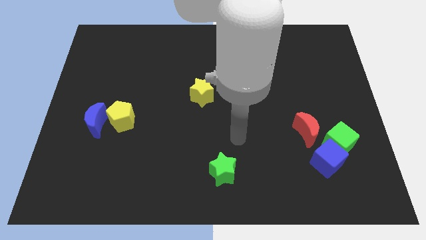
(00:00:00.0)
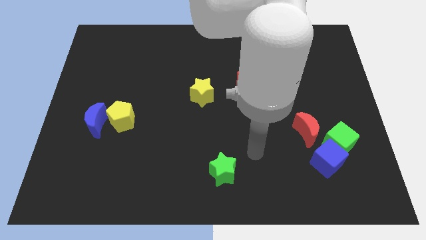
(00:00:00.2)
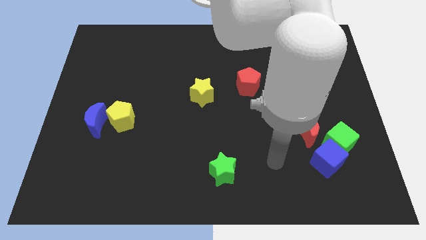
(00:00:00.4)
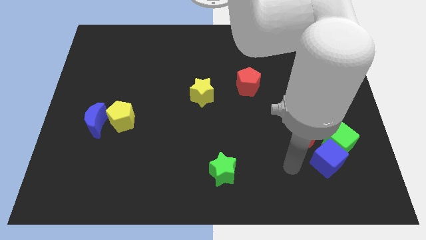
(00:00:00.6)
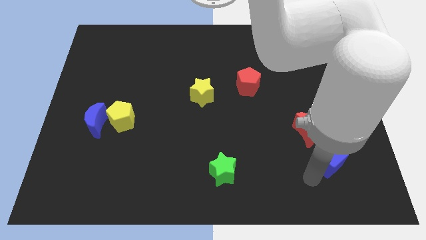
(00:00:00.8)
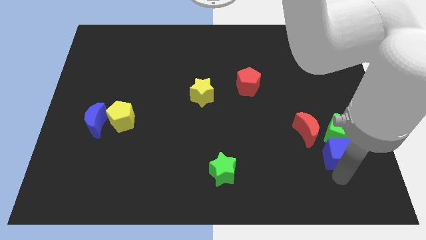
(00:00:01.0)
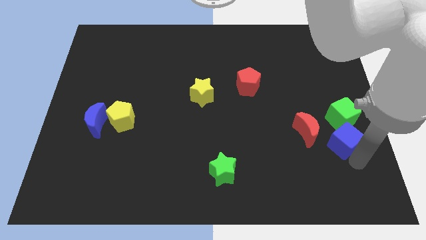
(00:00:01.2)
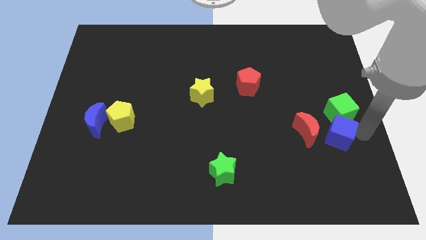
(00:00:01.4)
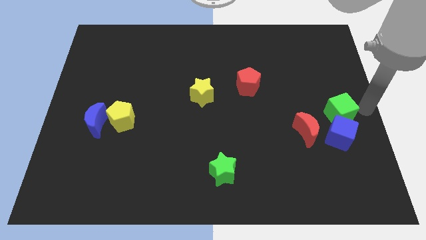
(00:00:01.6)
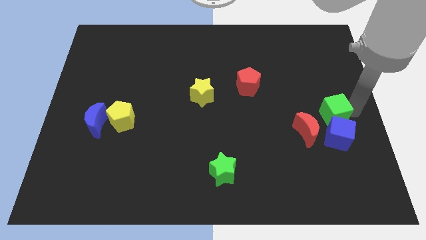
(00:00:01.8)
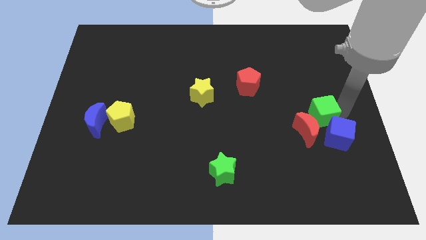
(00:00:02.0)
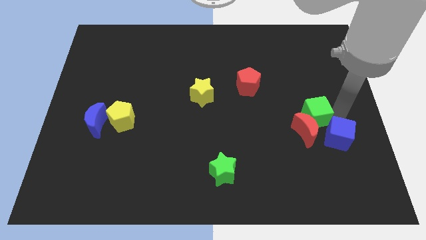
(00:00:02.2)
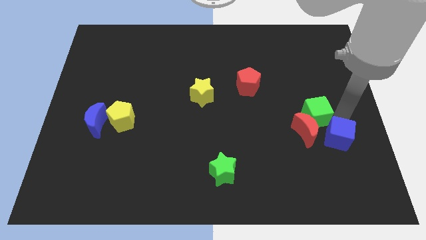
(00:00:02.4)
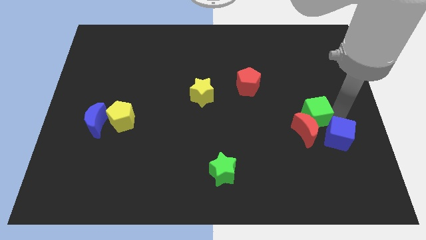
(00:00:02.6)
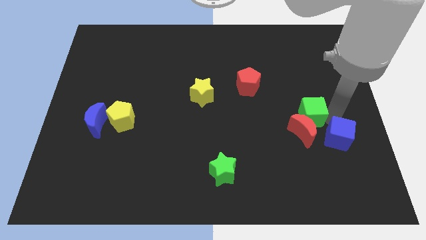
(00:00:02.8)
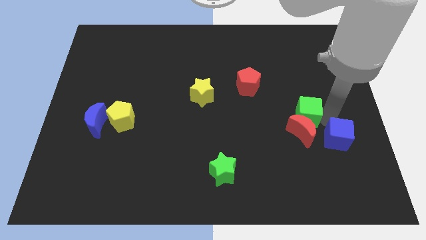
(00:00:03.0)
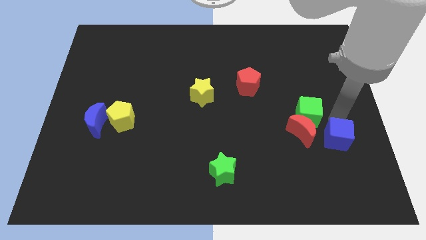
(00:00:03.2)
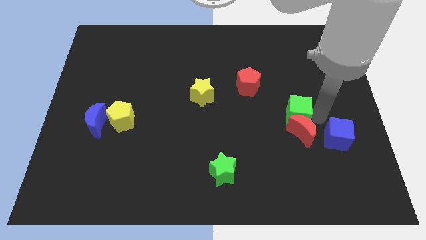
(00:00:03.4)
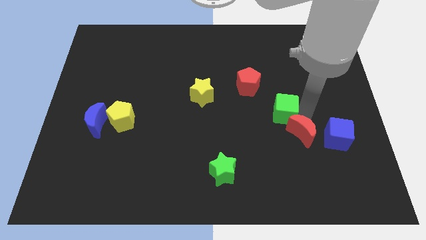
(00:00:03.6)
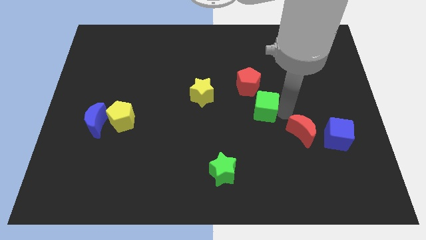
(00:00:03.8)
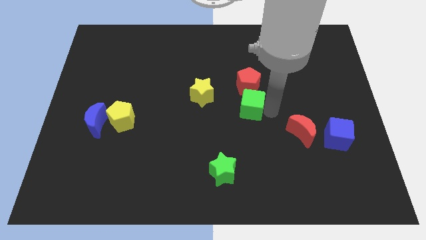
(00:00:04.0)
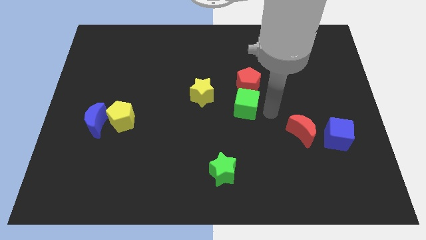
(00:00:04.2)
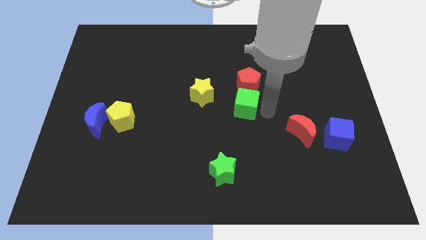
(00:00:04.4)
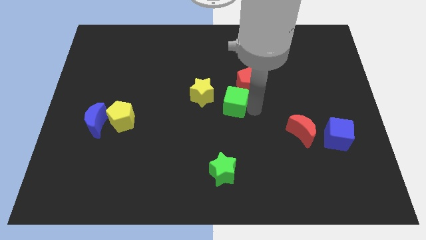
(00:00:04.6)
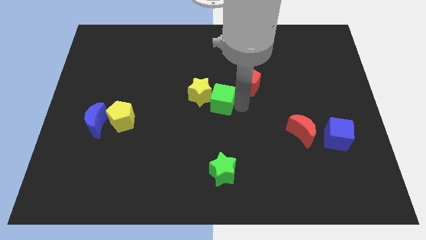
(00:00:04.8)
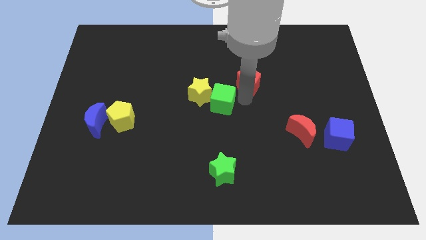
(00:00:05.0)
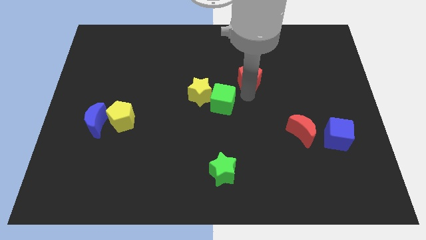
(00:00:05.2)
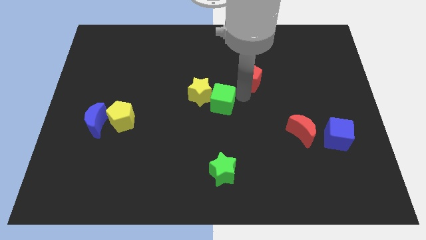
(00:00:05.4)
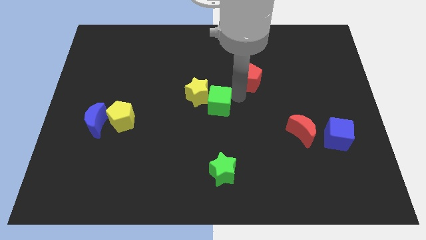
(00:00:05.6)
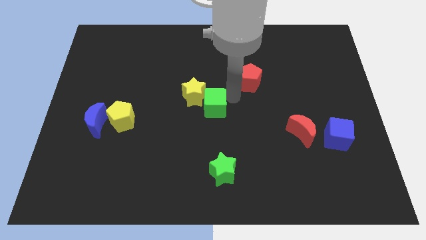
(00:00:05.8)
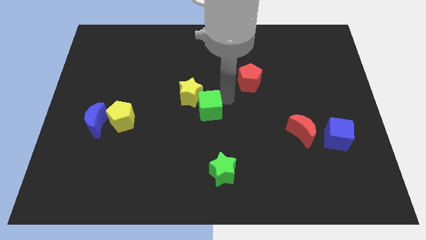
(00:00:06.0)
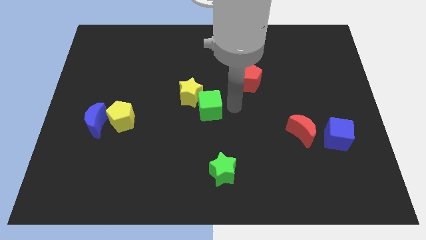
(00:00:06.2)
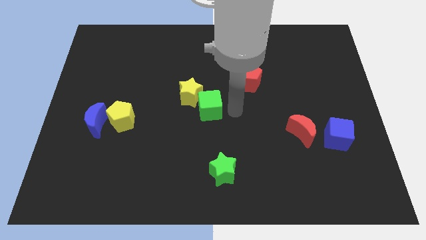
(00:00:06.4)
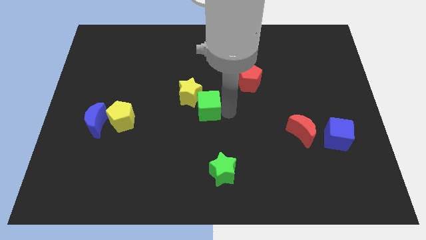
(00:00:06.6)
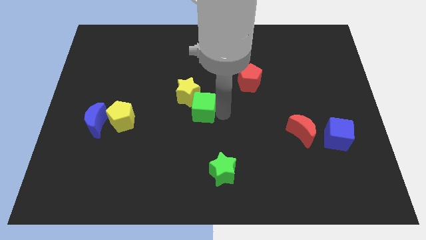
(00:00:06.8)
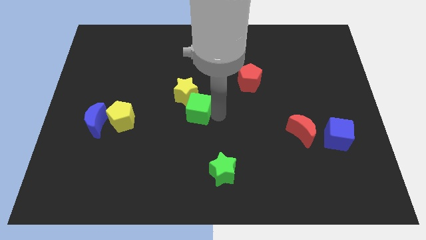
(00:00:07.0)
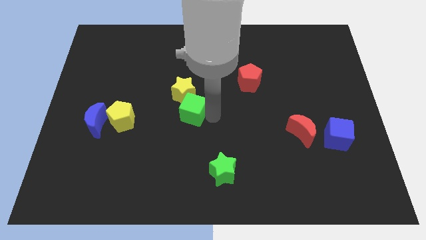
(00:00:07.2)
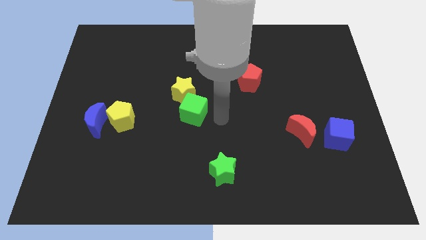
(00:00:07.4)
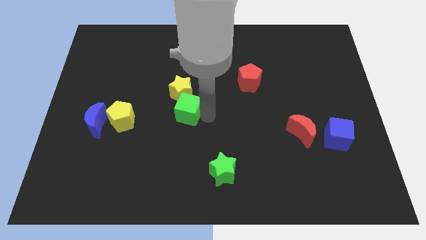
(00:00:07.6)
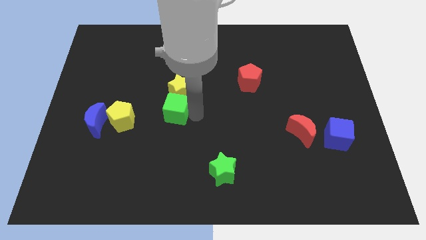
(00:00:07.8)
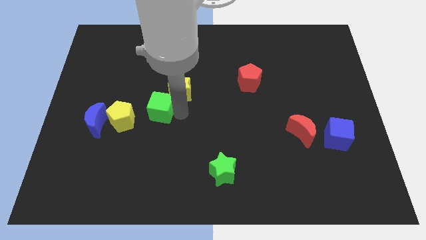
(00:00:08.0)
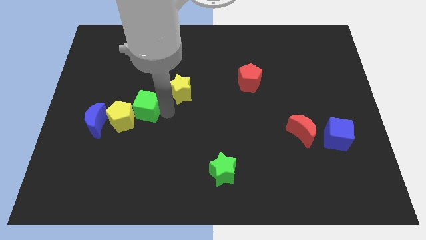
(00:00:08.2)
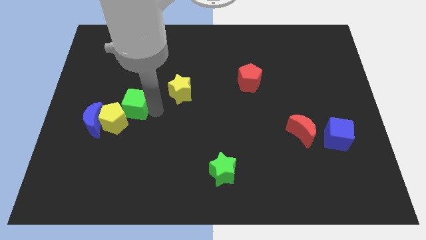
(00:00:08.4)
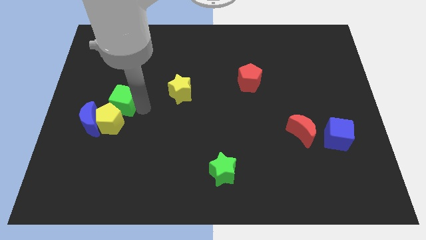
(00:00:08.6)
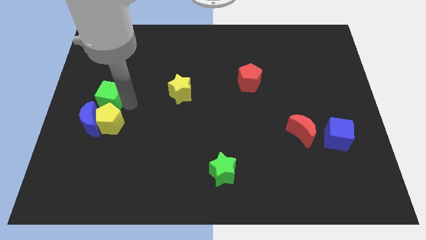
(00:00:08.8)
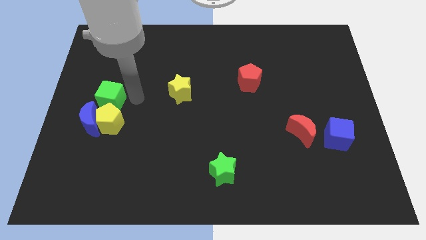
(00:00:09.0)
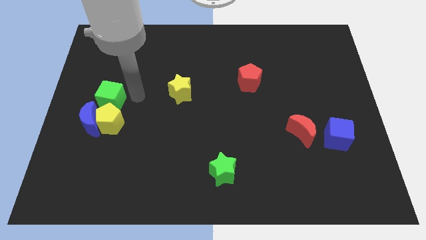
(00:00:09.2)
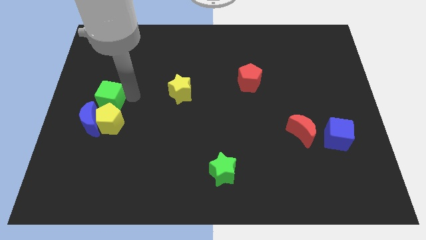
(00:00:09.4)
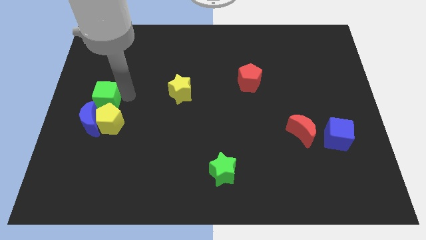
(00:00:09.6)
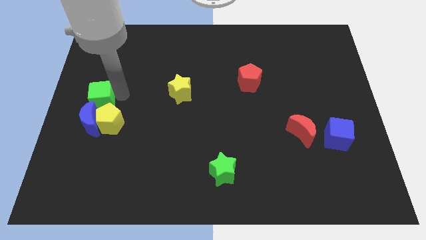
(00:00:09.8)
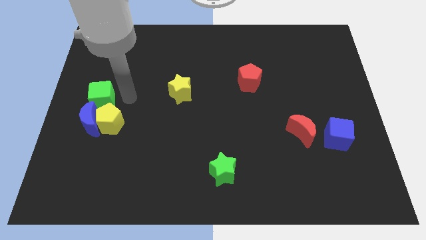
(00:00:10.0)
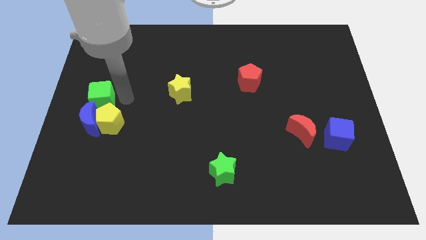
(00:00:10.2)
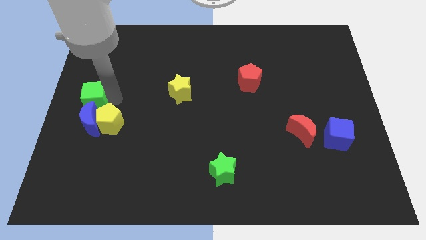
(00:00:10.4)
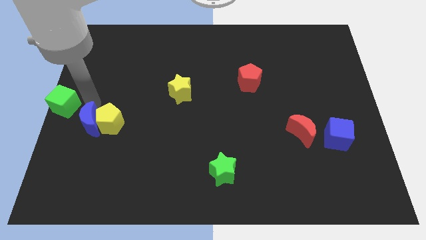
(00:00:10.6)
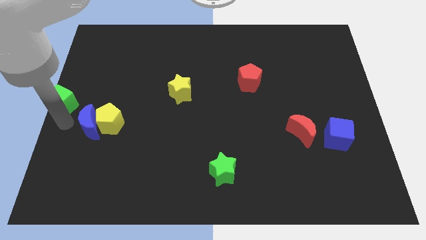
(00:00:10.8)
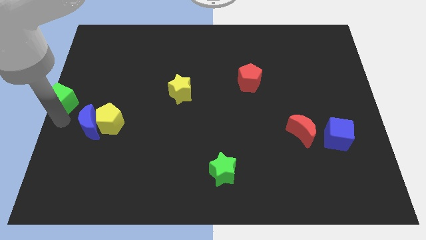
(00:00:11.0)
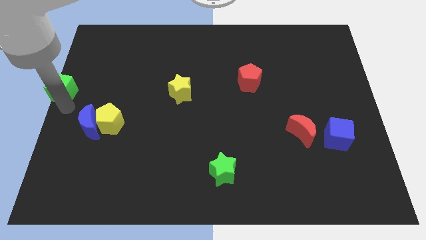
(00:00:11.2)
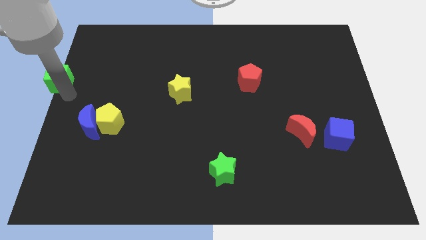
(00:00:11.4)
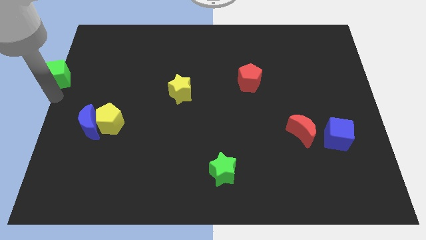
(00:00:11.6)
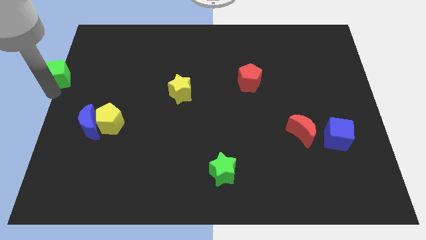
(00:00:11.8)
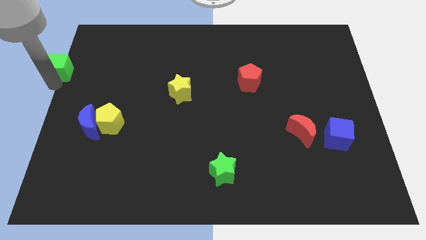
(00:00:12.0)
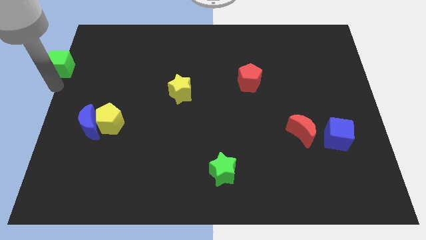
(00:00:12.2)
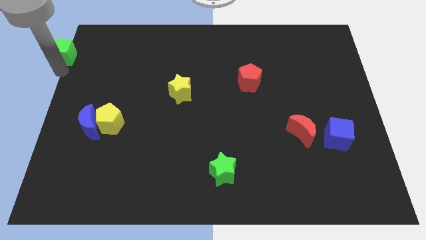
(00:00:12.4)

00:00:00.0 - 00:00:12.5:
put the green cube to the top left corner
